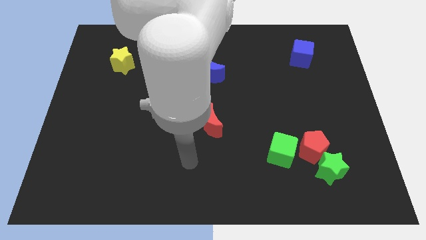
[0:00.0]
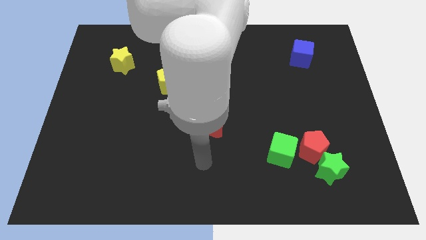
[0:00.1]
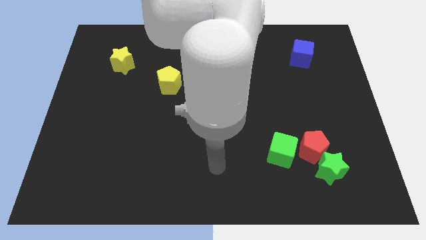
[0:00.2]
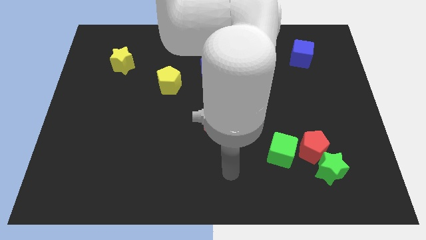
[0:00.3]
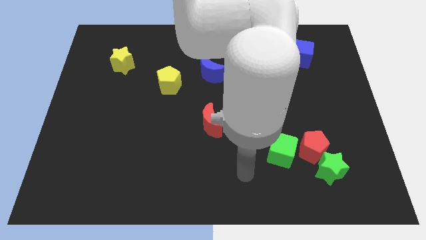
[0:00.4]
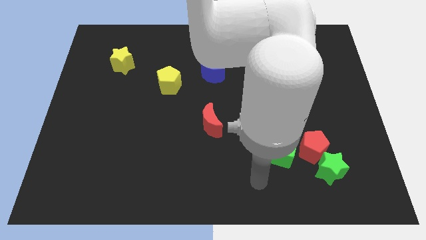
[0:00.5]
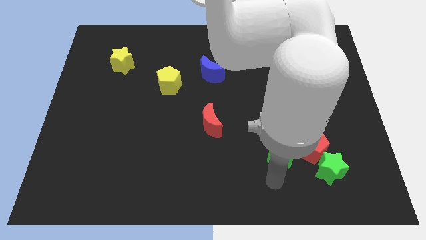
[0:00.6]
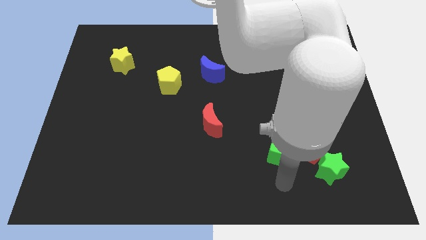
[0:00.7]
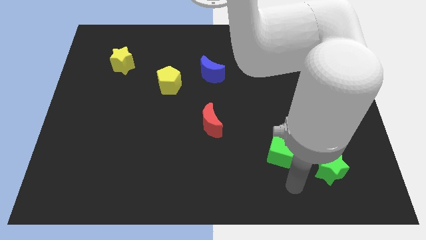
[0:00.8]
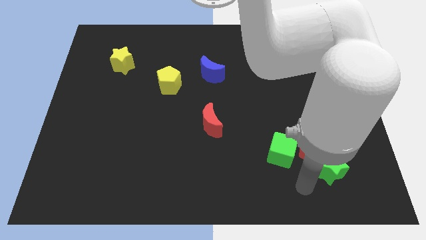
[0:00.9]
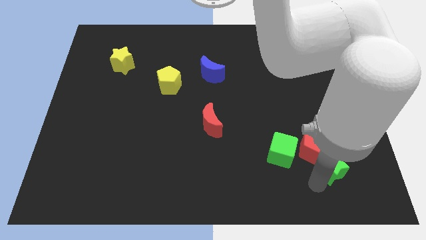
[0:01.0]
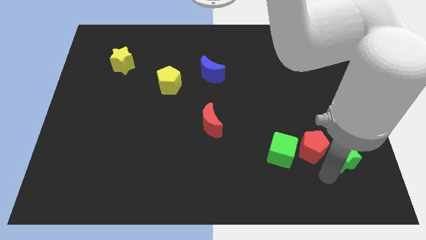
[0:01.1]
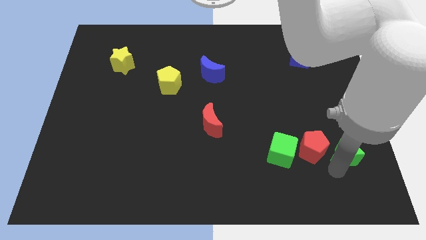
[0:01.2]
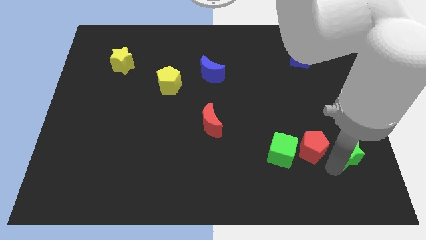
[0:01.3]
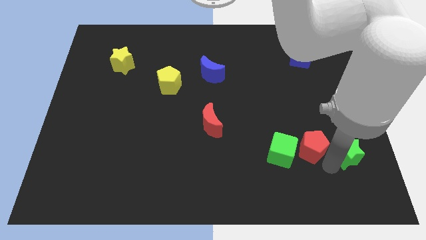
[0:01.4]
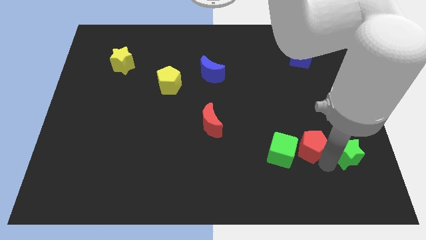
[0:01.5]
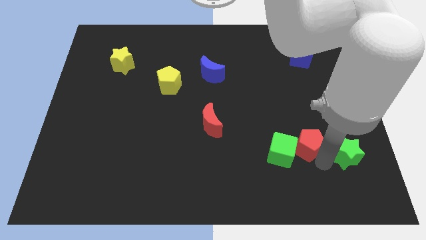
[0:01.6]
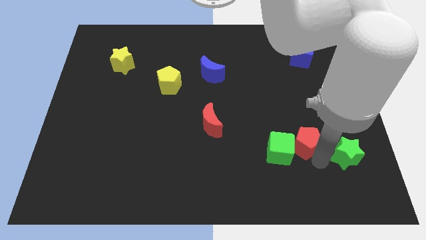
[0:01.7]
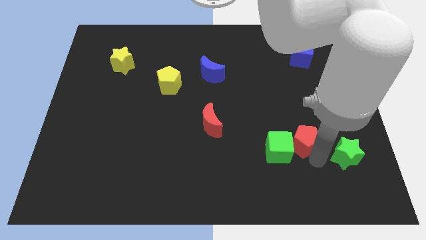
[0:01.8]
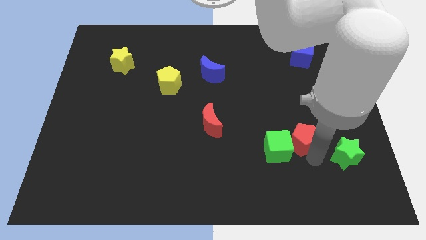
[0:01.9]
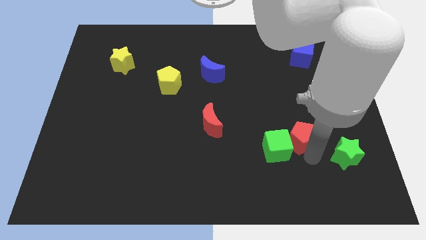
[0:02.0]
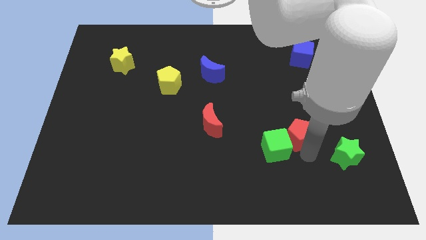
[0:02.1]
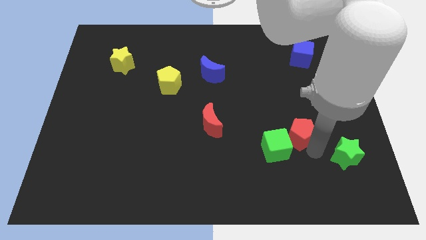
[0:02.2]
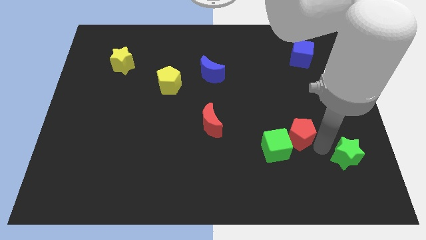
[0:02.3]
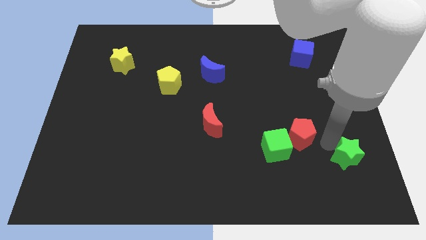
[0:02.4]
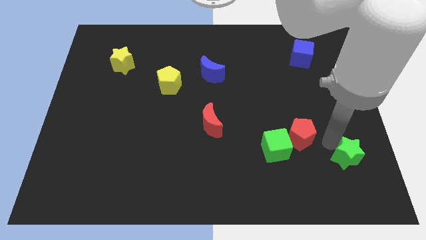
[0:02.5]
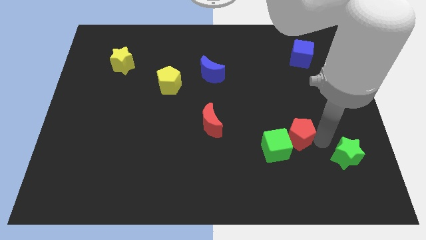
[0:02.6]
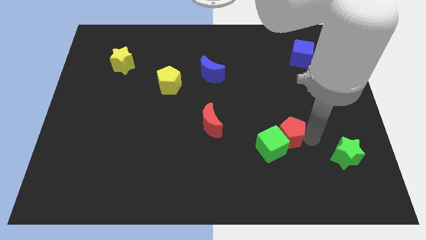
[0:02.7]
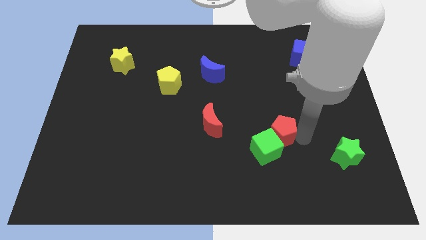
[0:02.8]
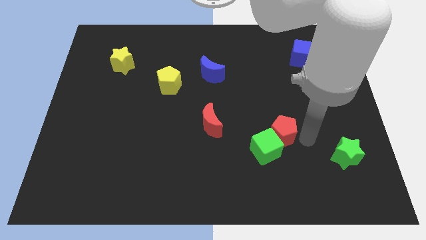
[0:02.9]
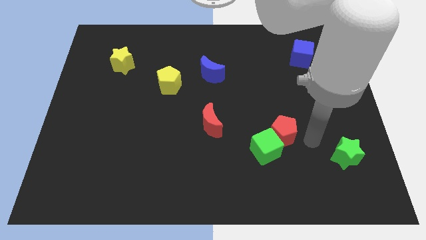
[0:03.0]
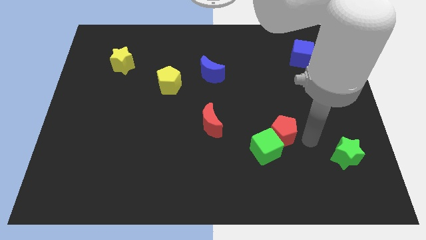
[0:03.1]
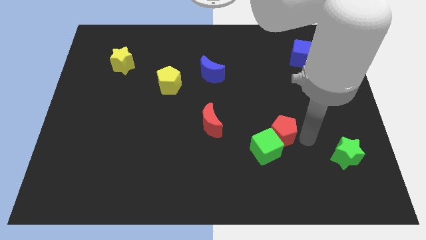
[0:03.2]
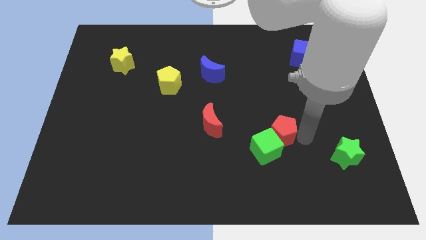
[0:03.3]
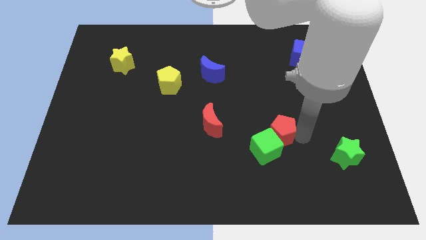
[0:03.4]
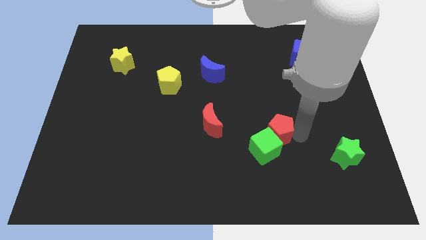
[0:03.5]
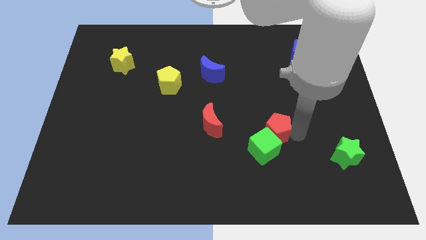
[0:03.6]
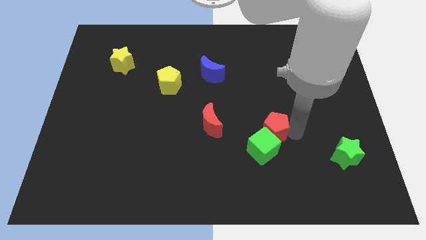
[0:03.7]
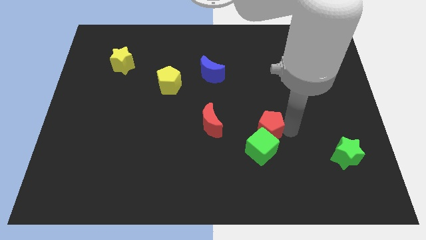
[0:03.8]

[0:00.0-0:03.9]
slightly slide the red pentagon left

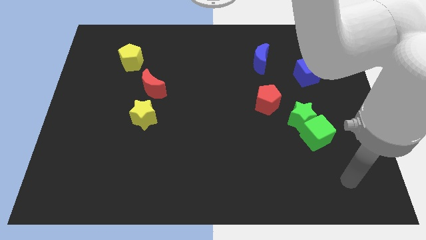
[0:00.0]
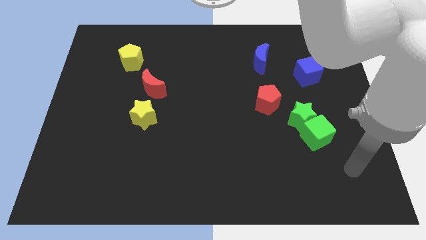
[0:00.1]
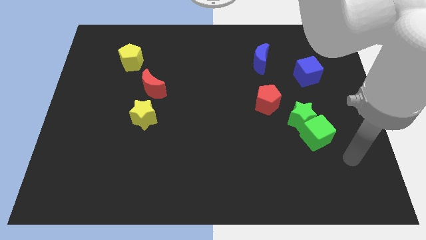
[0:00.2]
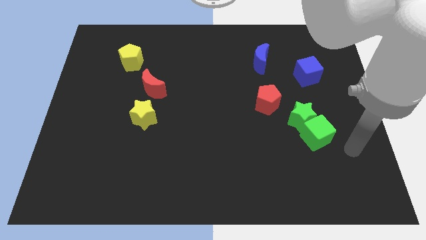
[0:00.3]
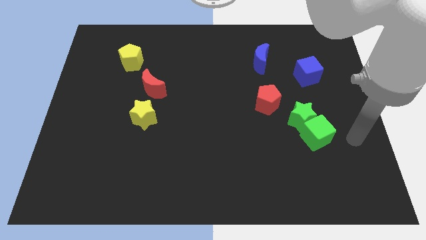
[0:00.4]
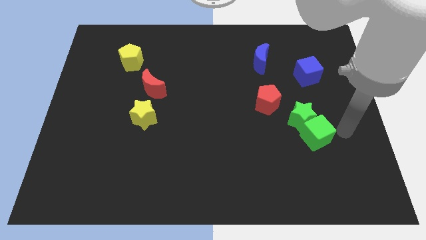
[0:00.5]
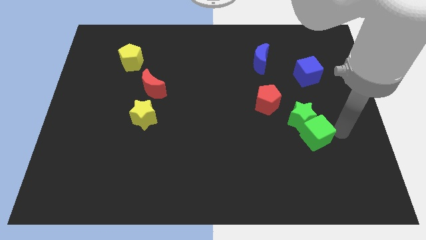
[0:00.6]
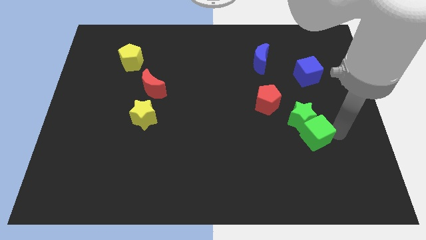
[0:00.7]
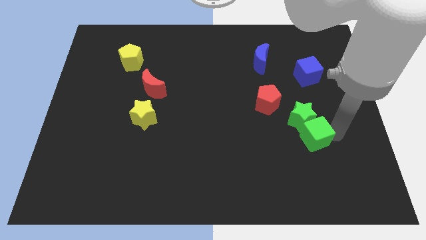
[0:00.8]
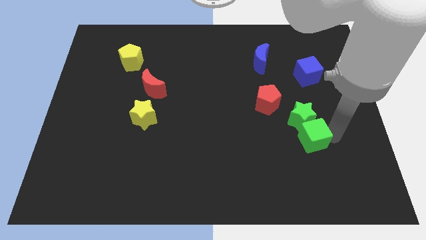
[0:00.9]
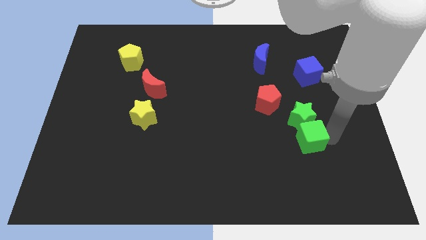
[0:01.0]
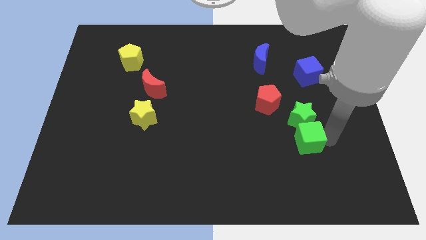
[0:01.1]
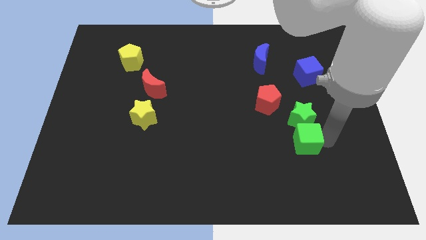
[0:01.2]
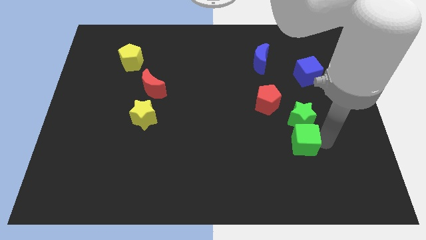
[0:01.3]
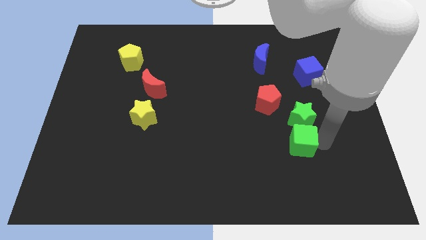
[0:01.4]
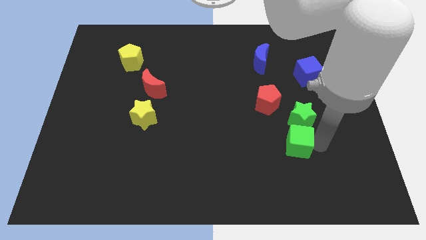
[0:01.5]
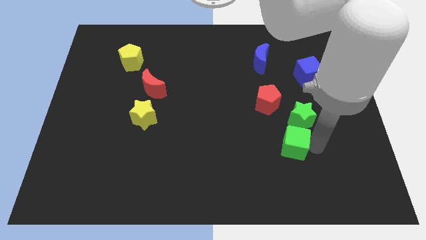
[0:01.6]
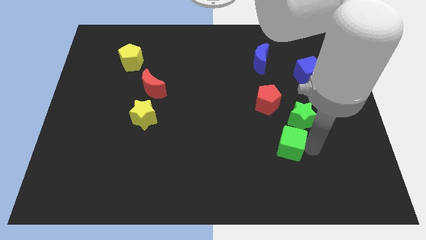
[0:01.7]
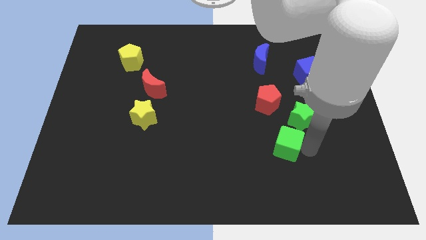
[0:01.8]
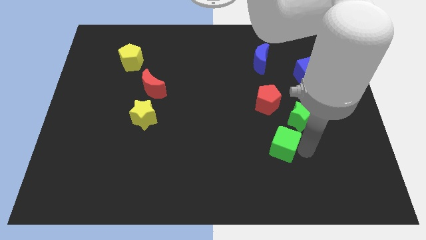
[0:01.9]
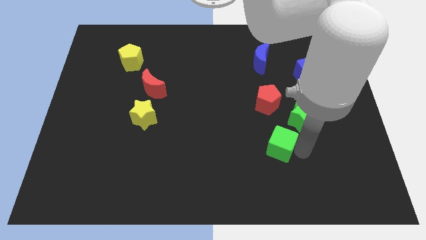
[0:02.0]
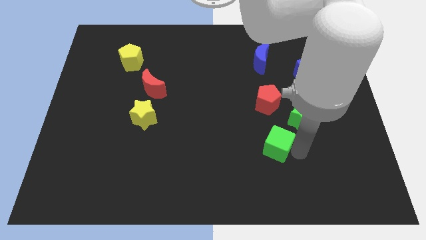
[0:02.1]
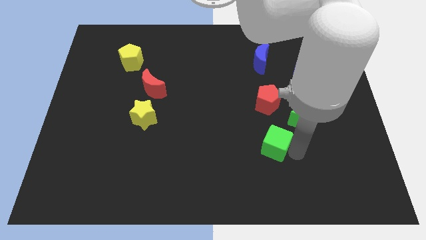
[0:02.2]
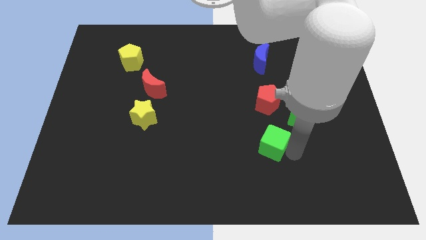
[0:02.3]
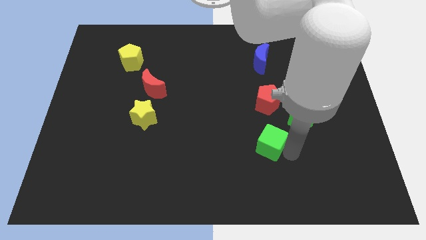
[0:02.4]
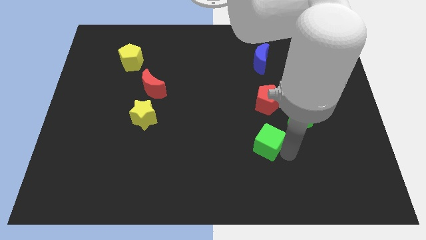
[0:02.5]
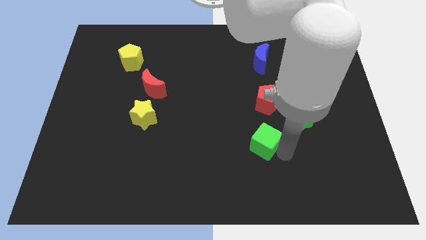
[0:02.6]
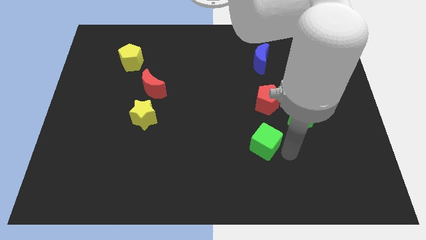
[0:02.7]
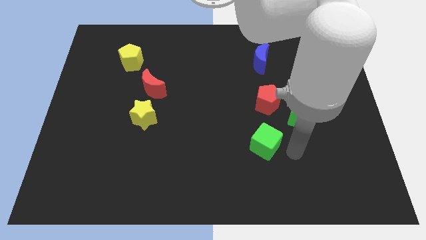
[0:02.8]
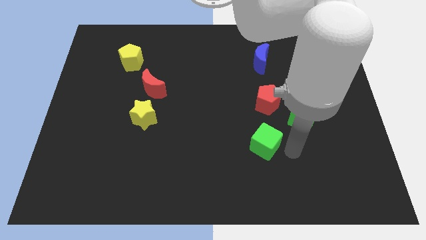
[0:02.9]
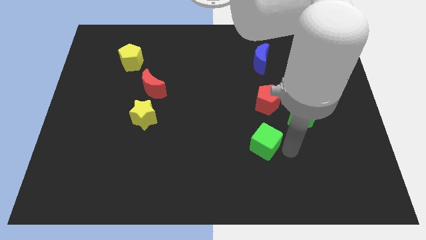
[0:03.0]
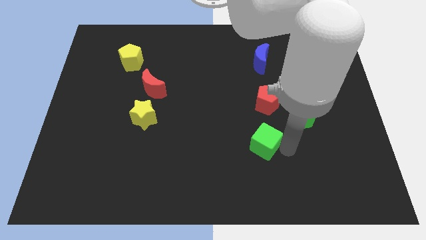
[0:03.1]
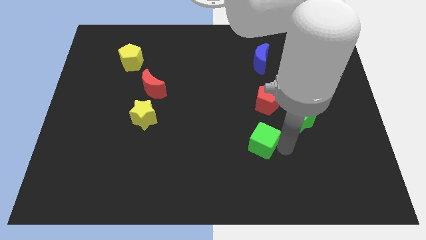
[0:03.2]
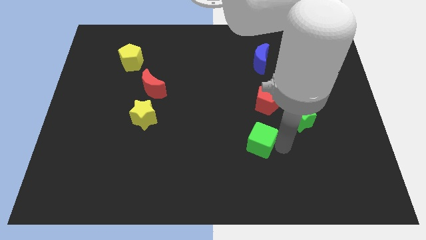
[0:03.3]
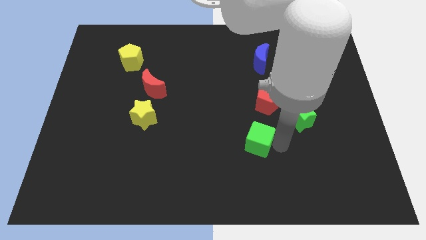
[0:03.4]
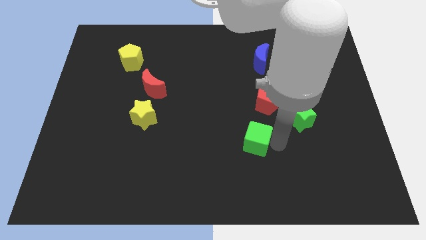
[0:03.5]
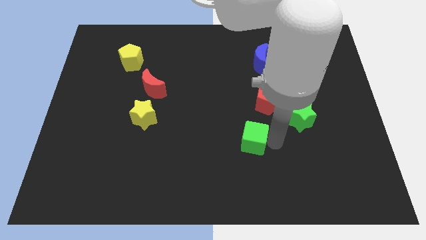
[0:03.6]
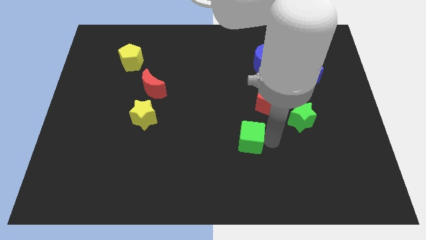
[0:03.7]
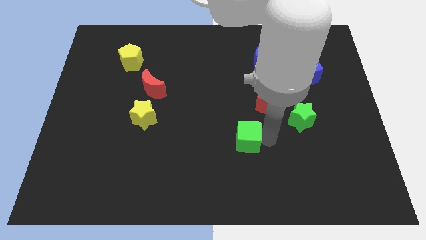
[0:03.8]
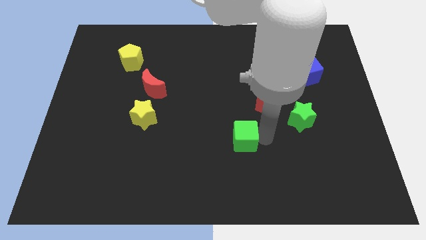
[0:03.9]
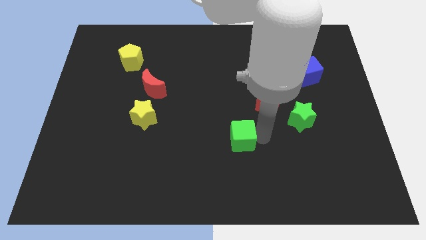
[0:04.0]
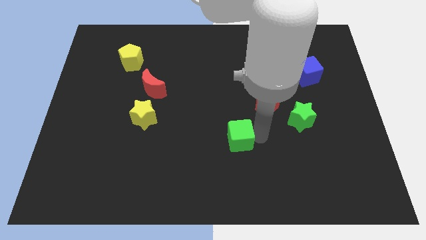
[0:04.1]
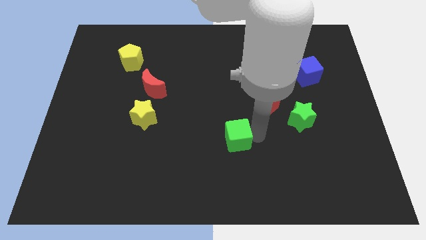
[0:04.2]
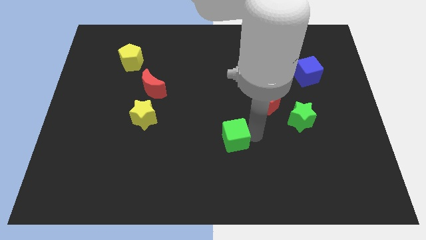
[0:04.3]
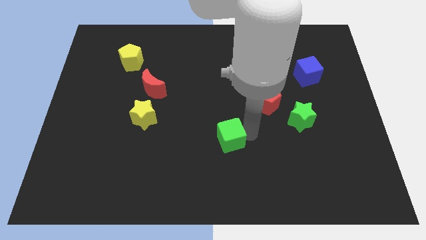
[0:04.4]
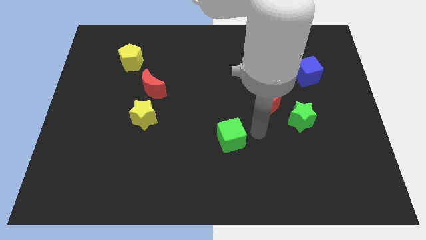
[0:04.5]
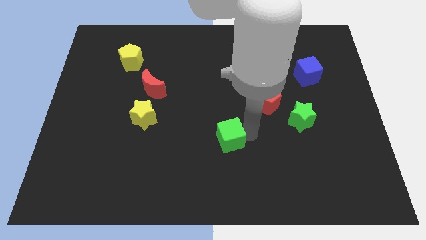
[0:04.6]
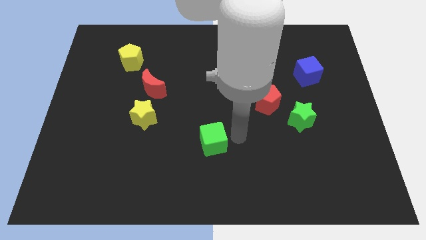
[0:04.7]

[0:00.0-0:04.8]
slide the green cube to the left
